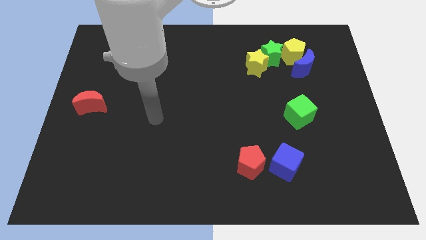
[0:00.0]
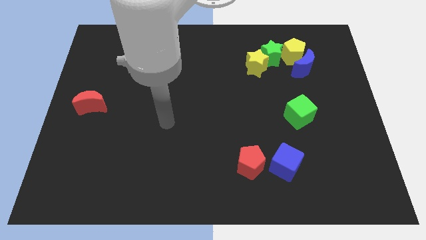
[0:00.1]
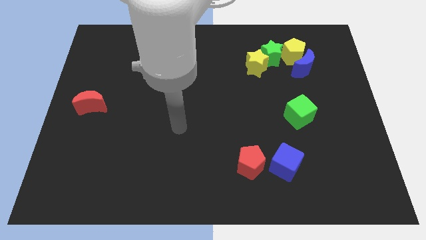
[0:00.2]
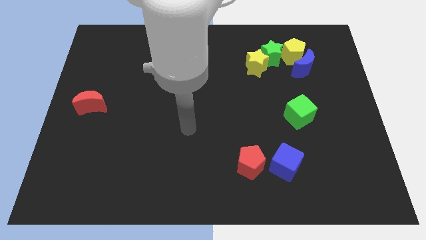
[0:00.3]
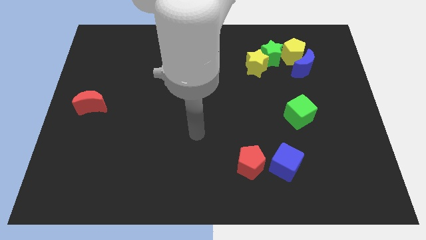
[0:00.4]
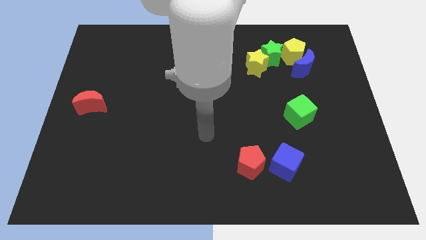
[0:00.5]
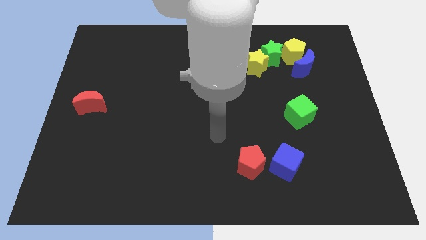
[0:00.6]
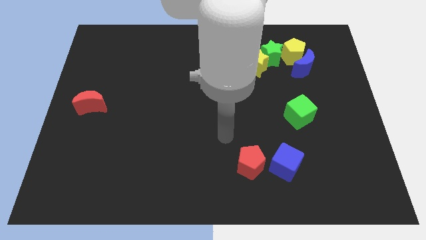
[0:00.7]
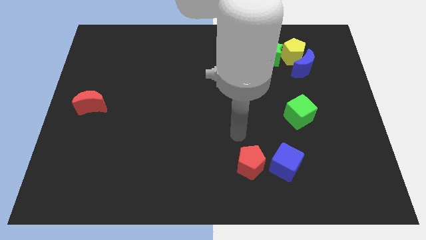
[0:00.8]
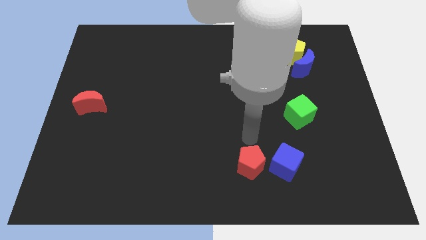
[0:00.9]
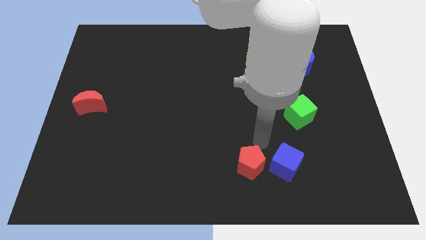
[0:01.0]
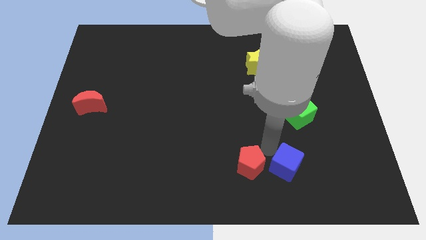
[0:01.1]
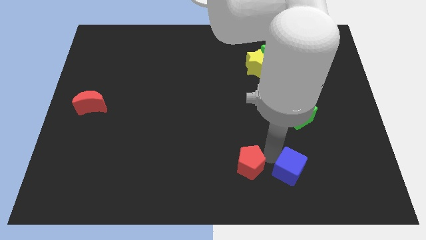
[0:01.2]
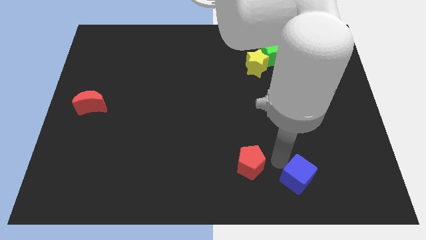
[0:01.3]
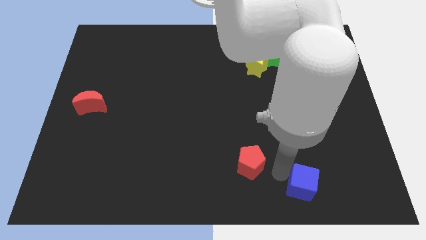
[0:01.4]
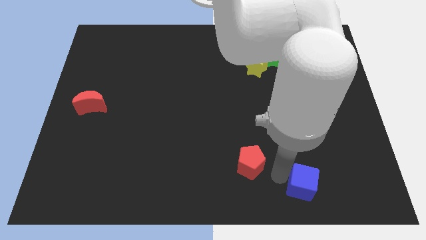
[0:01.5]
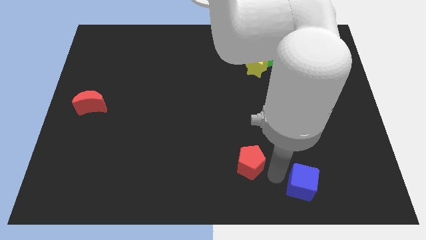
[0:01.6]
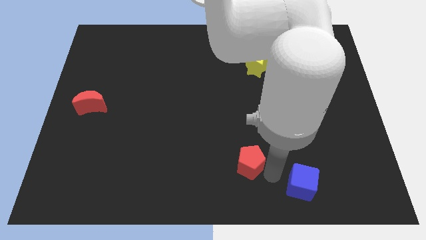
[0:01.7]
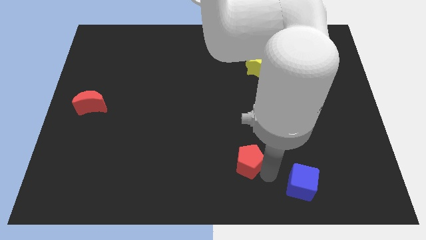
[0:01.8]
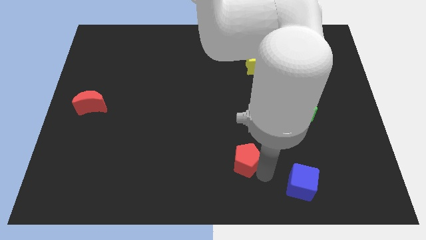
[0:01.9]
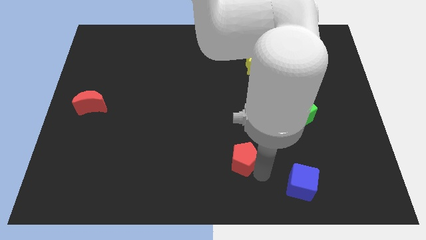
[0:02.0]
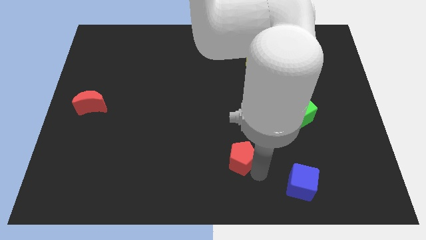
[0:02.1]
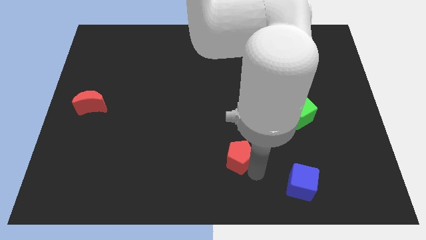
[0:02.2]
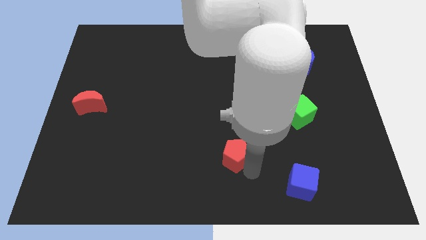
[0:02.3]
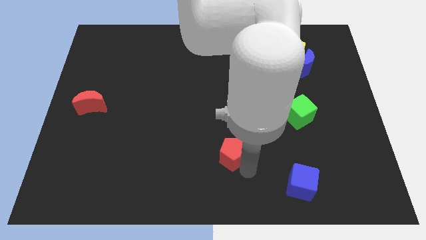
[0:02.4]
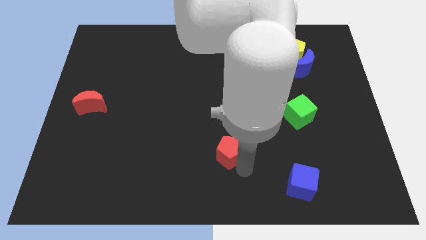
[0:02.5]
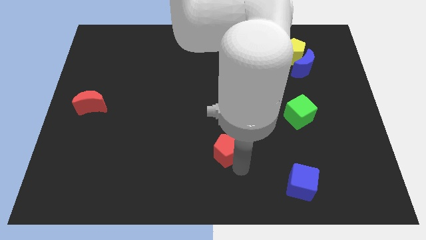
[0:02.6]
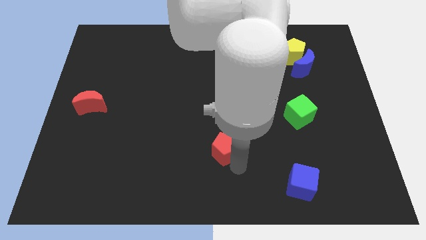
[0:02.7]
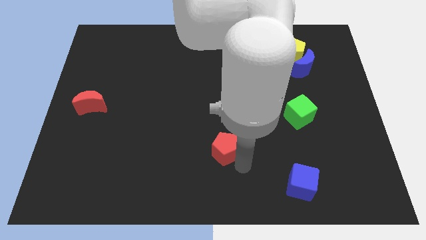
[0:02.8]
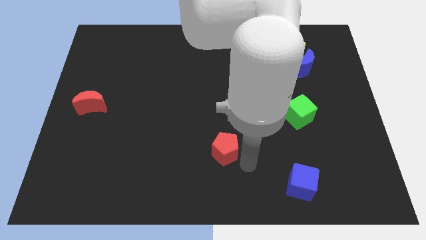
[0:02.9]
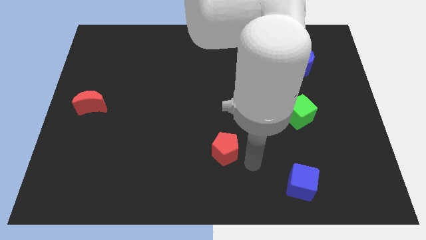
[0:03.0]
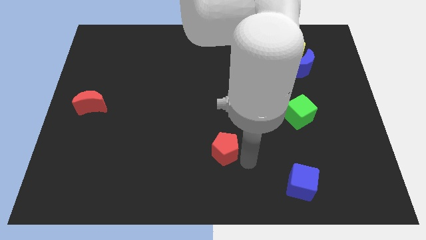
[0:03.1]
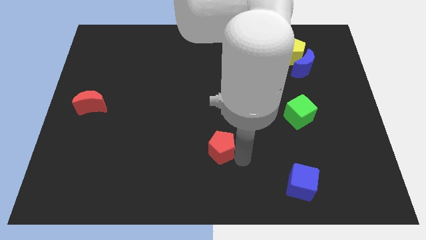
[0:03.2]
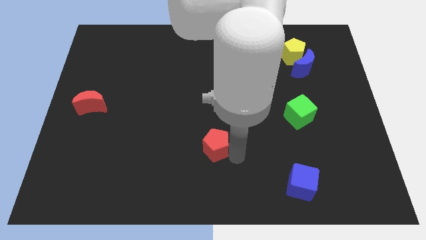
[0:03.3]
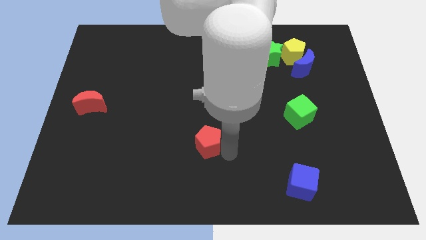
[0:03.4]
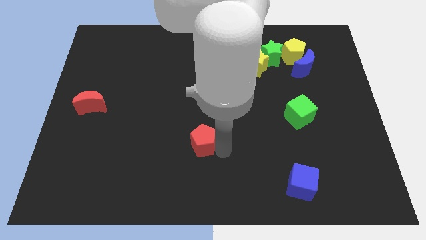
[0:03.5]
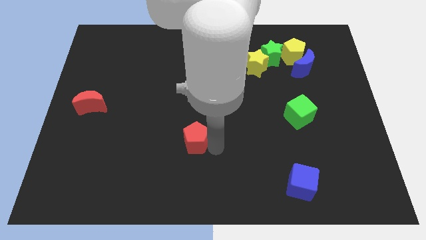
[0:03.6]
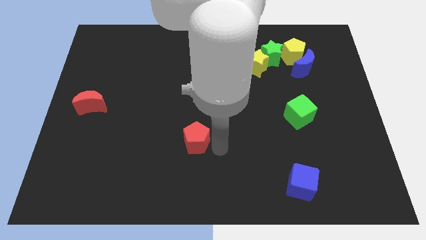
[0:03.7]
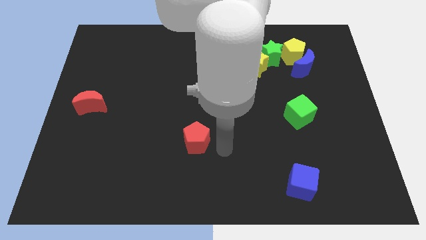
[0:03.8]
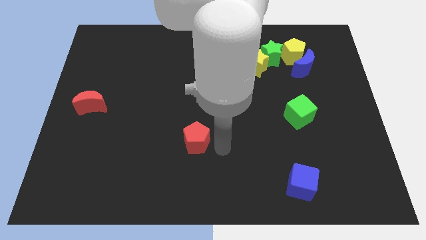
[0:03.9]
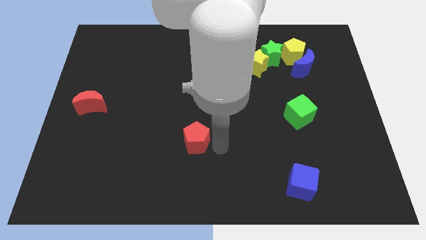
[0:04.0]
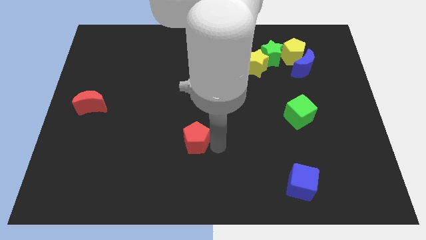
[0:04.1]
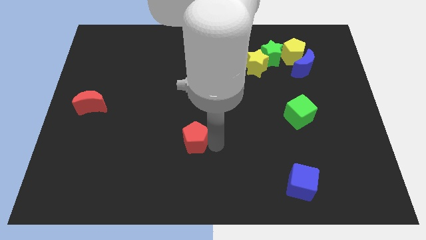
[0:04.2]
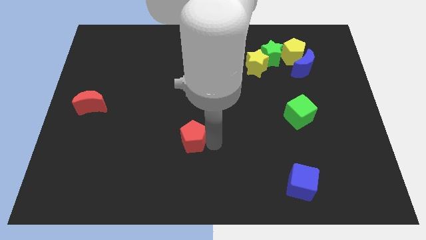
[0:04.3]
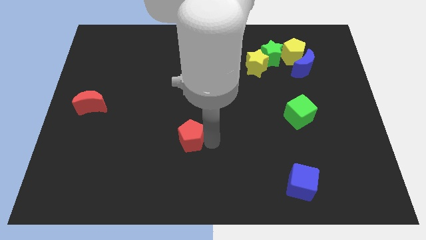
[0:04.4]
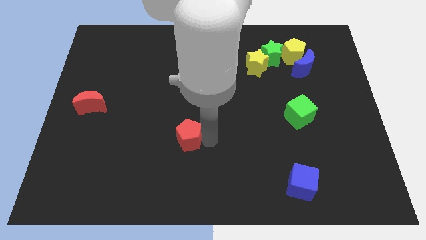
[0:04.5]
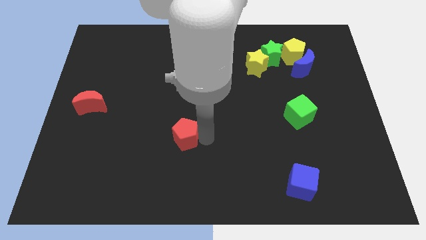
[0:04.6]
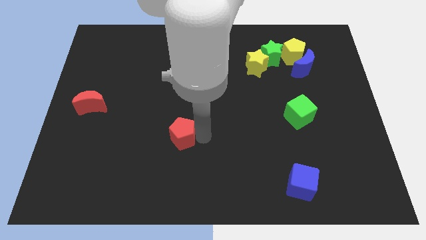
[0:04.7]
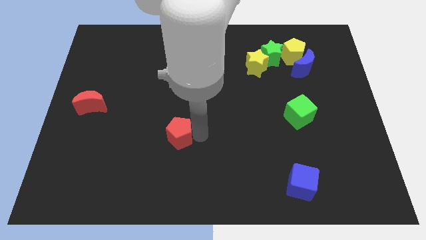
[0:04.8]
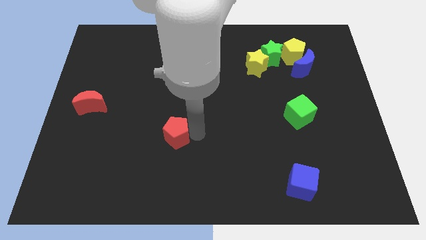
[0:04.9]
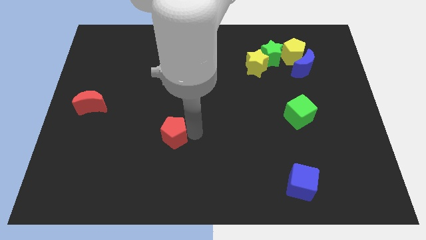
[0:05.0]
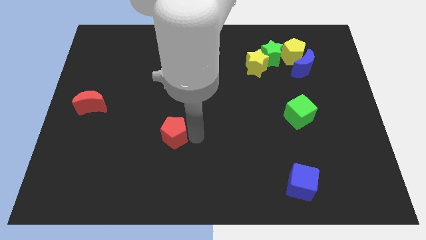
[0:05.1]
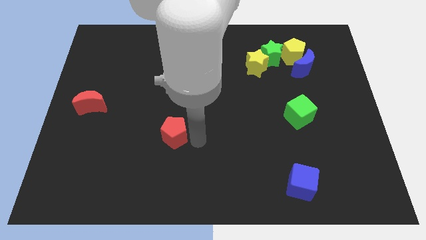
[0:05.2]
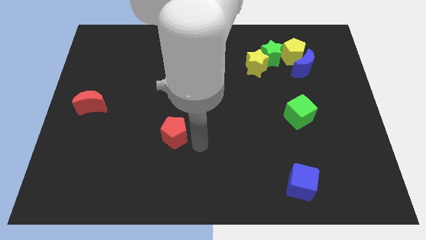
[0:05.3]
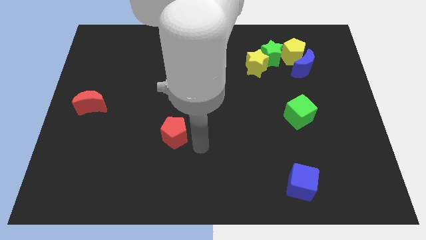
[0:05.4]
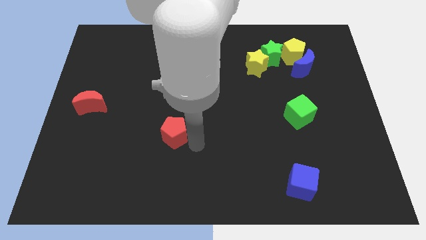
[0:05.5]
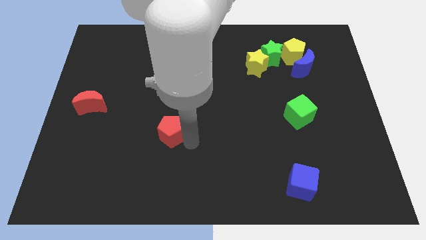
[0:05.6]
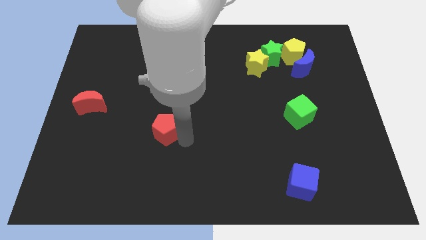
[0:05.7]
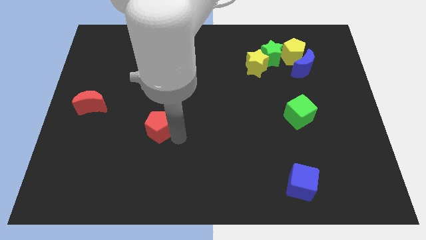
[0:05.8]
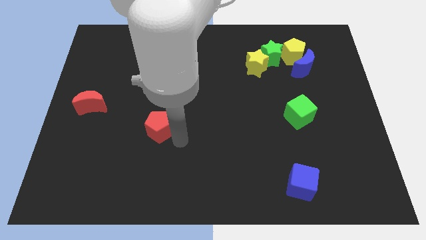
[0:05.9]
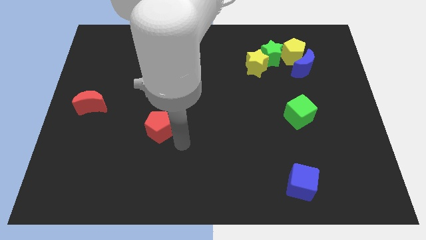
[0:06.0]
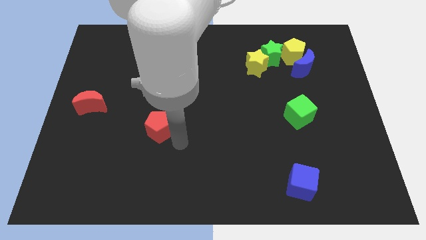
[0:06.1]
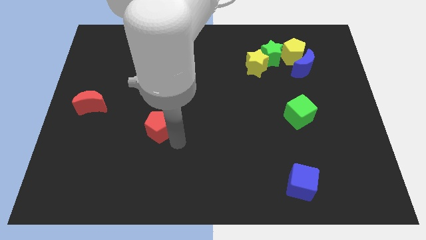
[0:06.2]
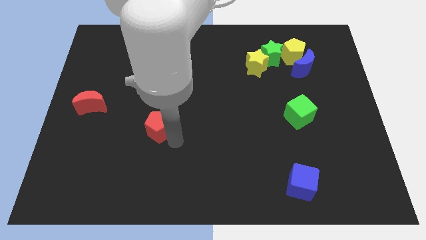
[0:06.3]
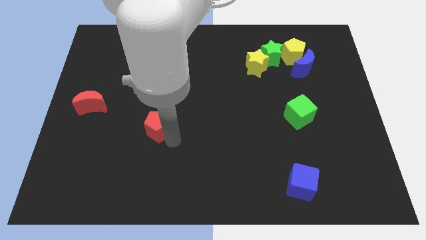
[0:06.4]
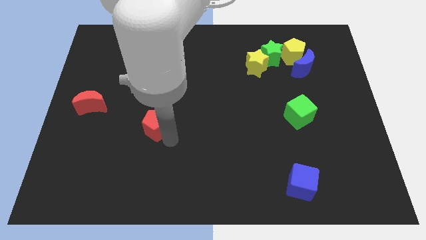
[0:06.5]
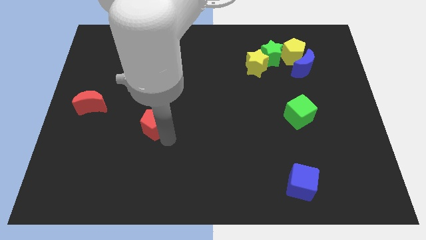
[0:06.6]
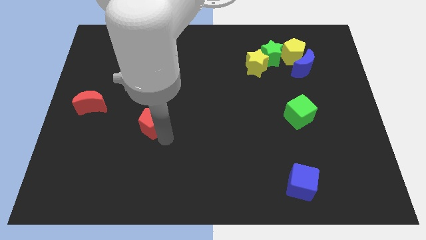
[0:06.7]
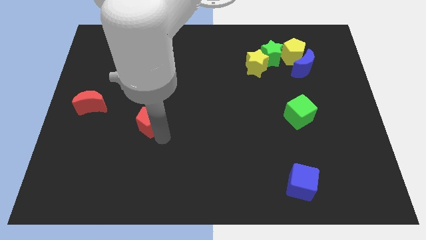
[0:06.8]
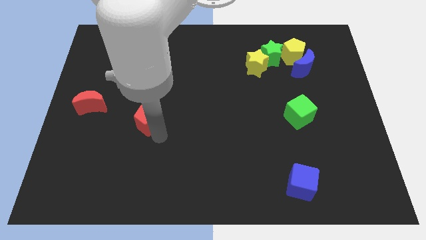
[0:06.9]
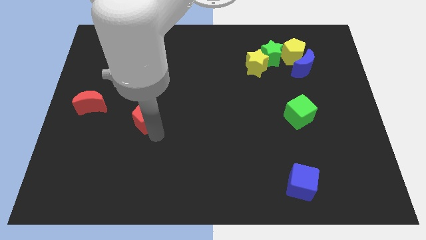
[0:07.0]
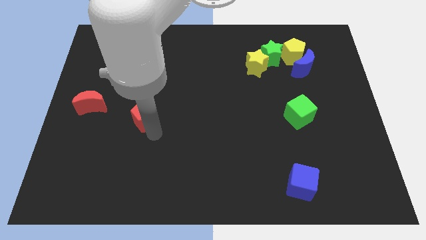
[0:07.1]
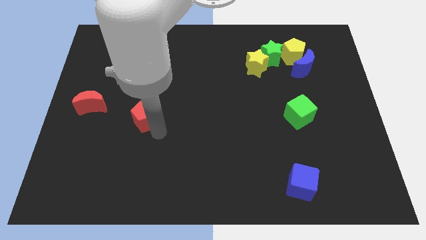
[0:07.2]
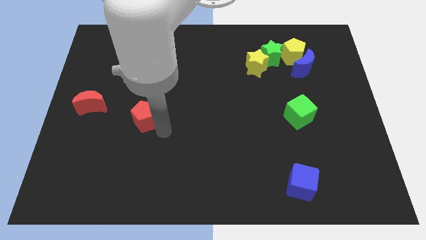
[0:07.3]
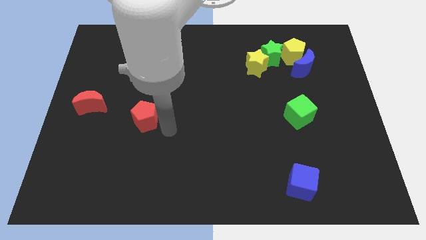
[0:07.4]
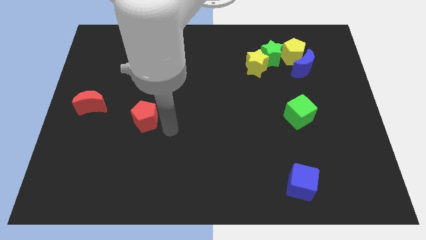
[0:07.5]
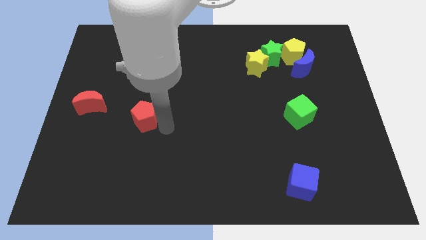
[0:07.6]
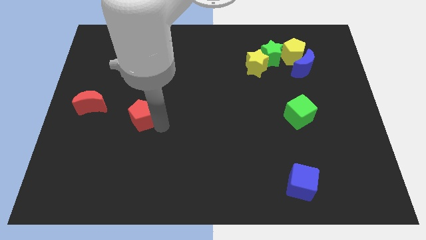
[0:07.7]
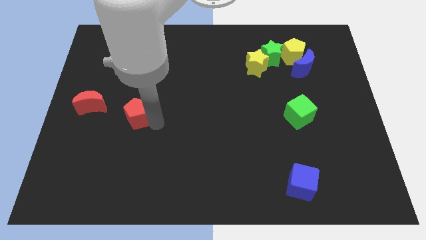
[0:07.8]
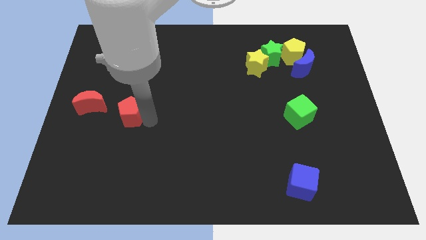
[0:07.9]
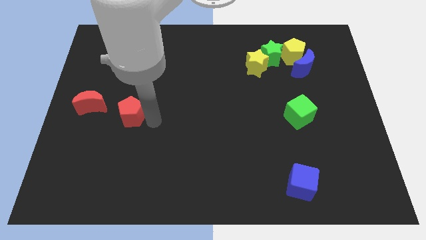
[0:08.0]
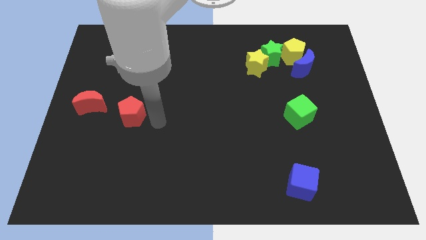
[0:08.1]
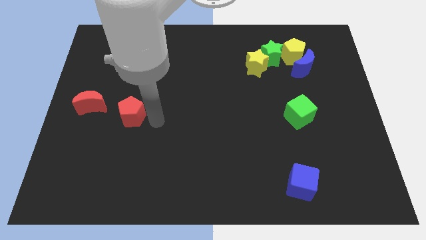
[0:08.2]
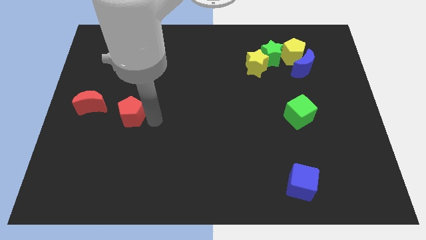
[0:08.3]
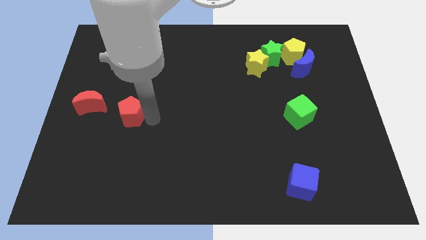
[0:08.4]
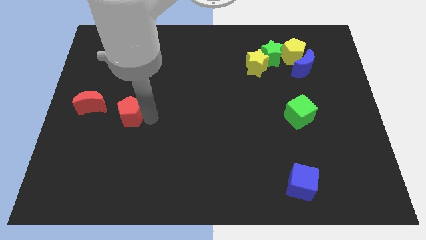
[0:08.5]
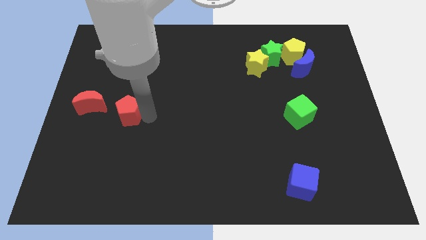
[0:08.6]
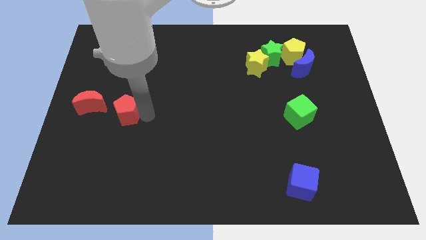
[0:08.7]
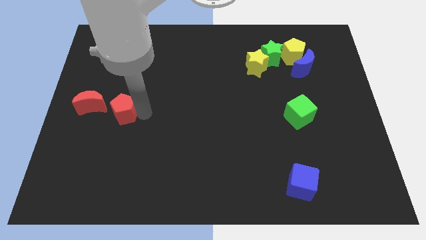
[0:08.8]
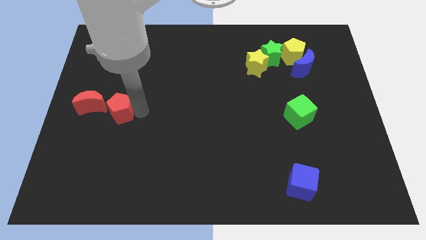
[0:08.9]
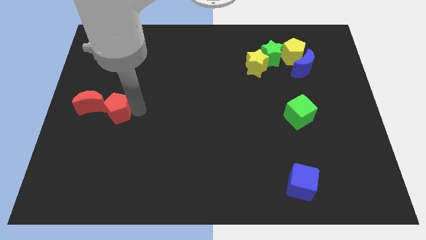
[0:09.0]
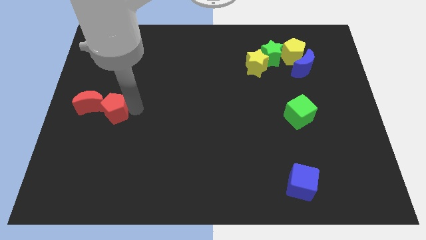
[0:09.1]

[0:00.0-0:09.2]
put the red pentagon towards the red moon
